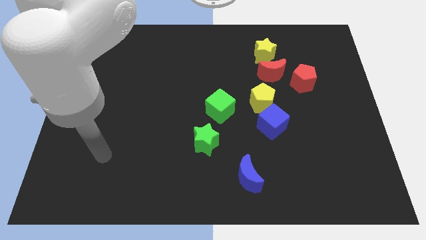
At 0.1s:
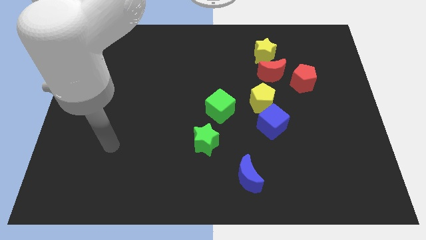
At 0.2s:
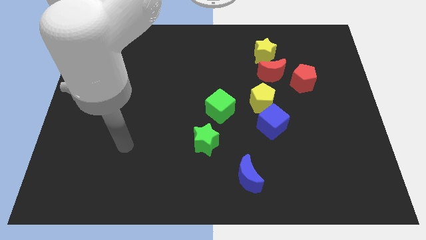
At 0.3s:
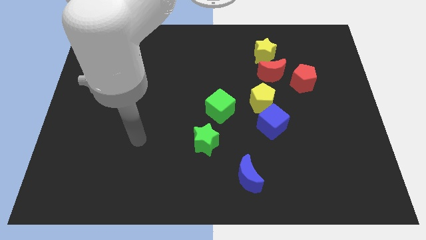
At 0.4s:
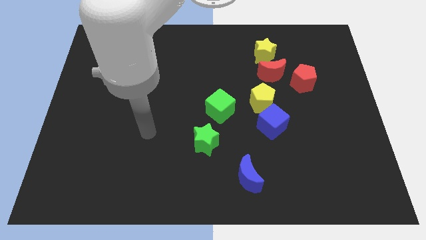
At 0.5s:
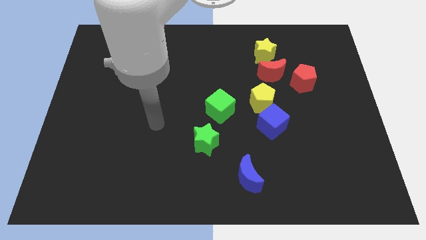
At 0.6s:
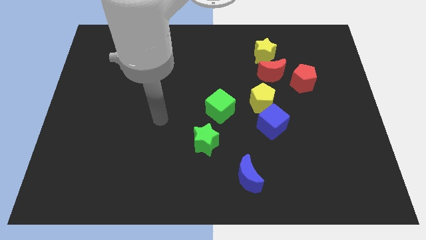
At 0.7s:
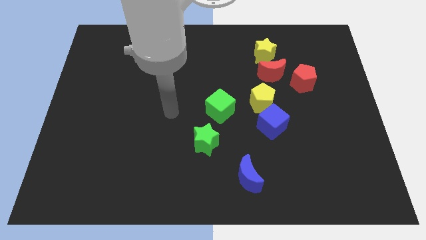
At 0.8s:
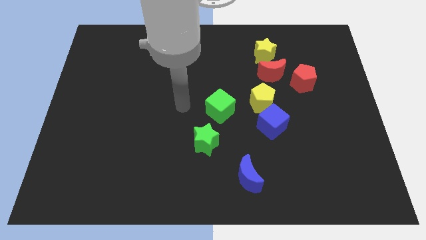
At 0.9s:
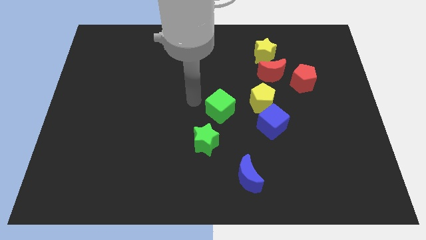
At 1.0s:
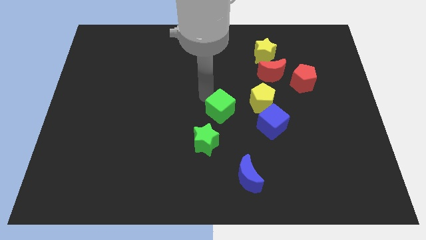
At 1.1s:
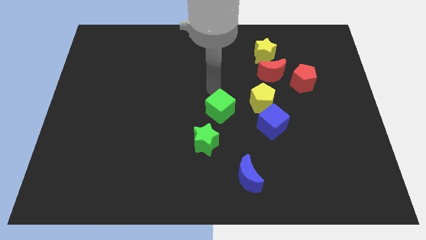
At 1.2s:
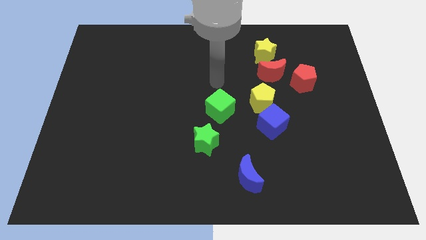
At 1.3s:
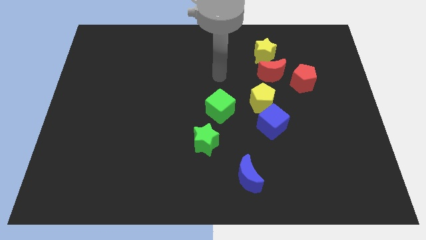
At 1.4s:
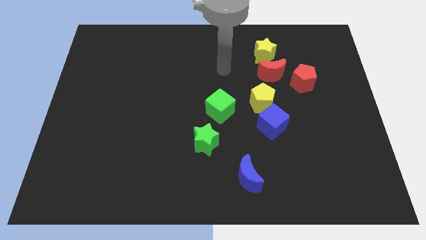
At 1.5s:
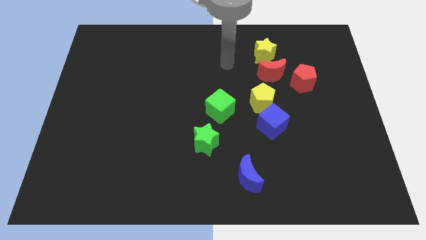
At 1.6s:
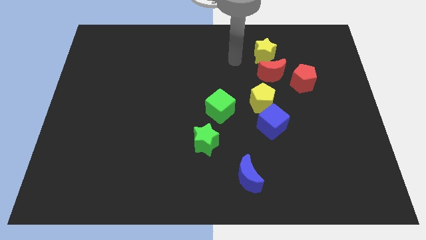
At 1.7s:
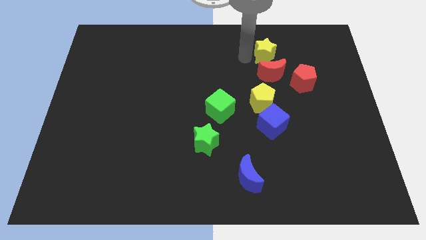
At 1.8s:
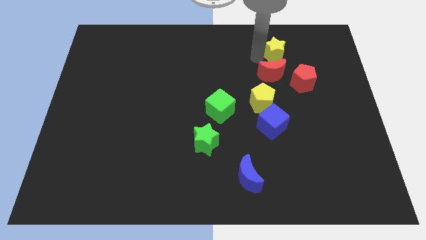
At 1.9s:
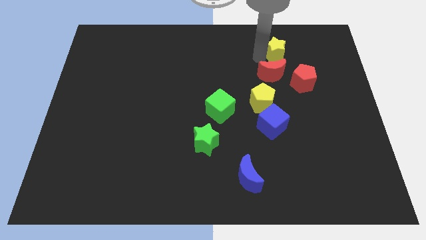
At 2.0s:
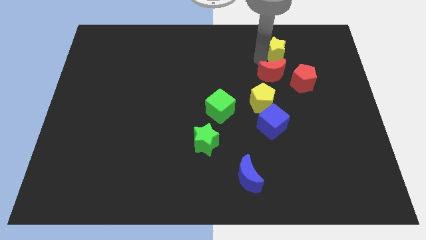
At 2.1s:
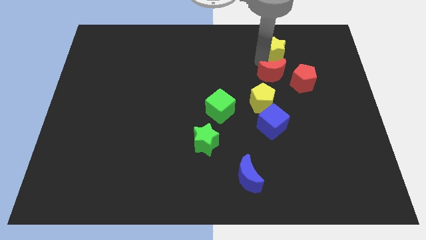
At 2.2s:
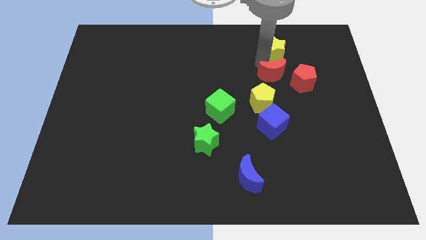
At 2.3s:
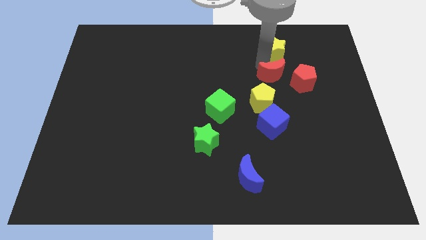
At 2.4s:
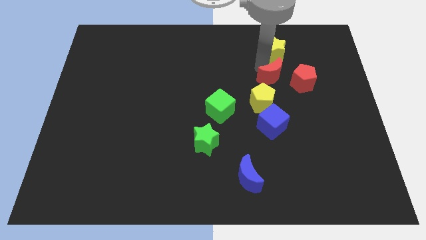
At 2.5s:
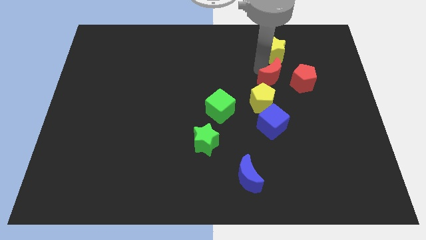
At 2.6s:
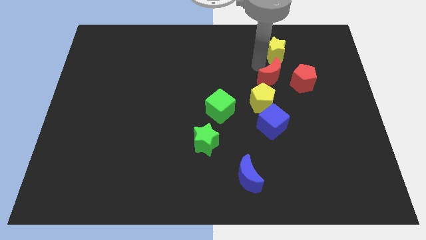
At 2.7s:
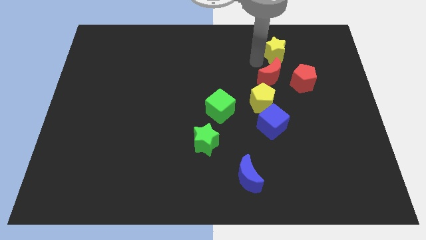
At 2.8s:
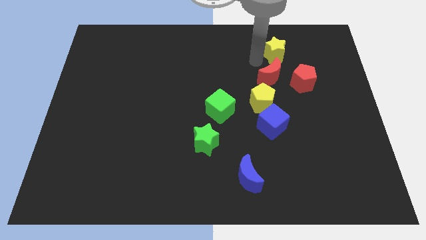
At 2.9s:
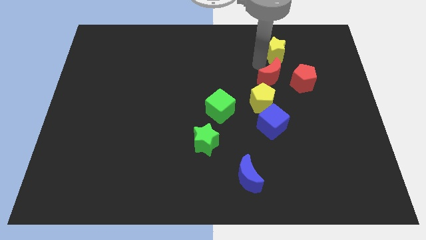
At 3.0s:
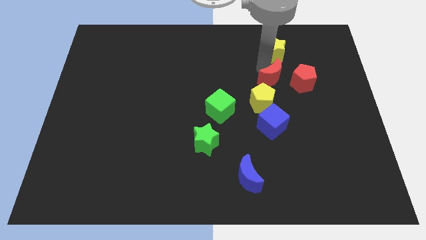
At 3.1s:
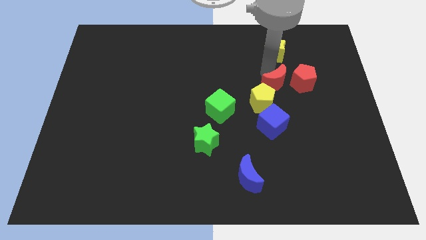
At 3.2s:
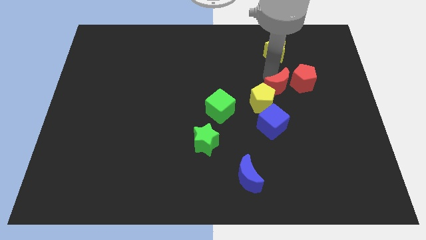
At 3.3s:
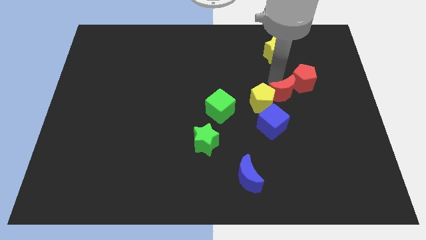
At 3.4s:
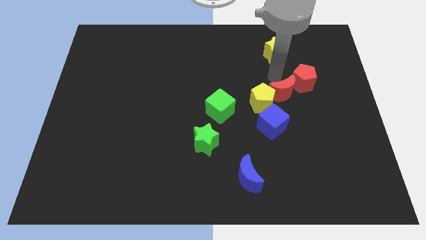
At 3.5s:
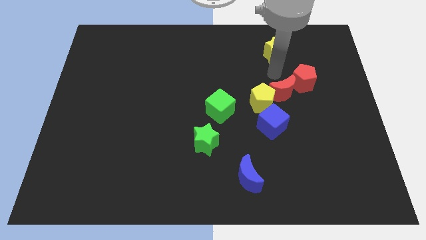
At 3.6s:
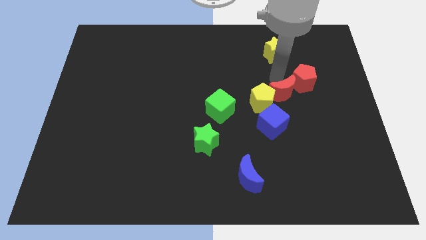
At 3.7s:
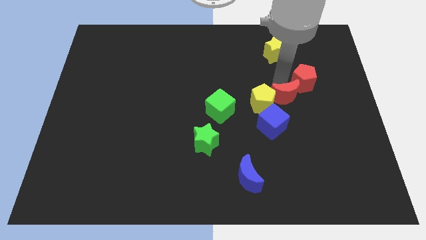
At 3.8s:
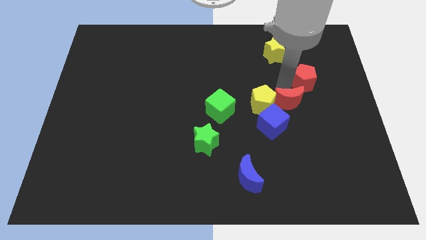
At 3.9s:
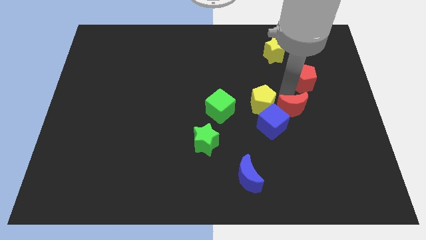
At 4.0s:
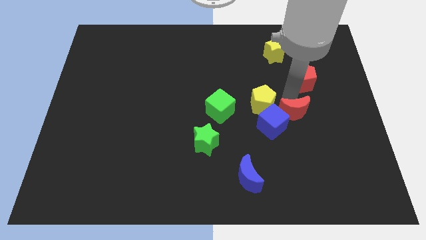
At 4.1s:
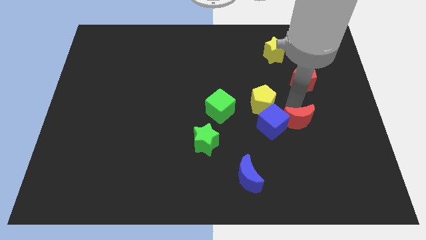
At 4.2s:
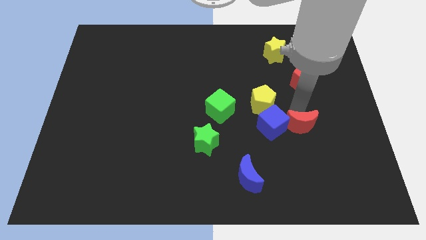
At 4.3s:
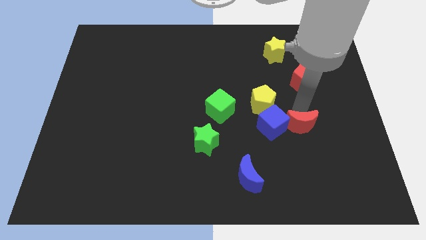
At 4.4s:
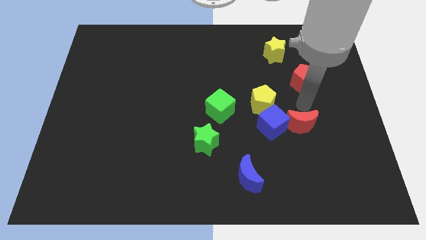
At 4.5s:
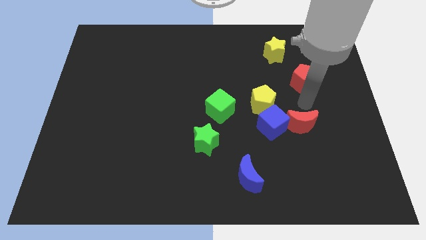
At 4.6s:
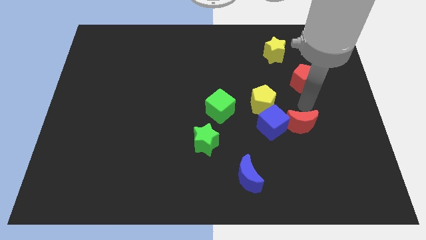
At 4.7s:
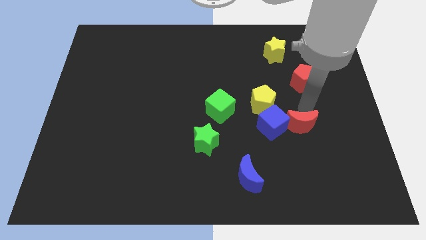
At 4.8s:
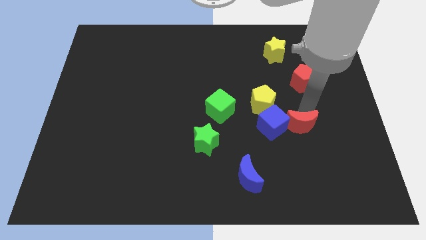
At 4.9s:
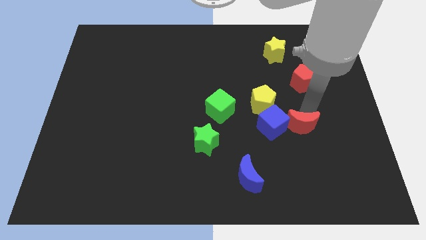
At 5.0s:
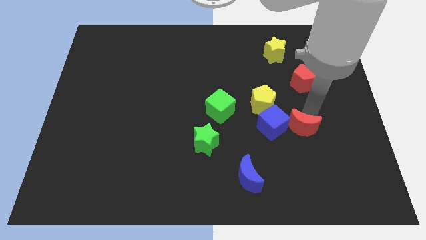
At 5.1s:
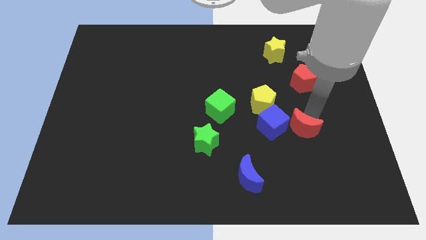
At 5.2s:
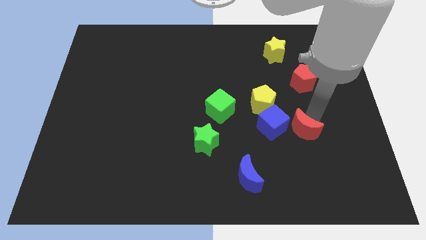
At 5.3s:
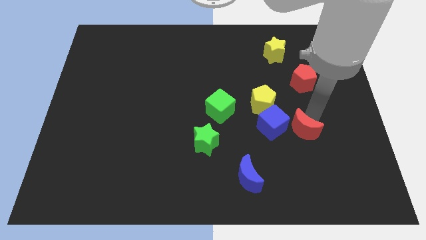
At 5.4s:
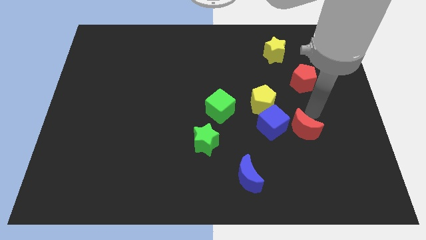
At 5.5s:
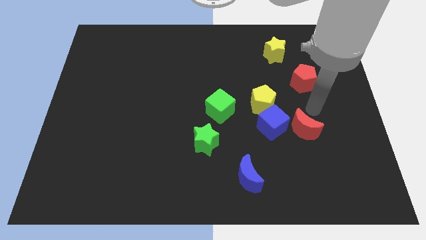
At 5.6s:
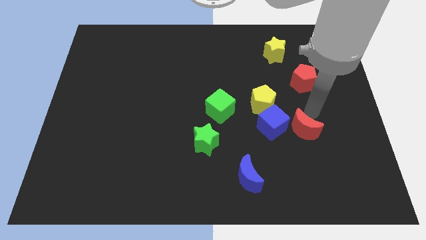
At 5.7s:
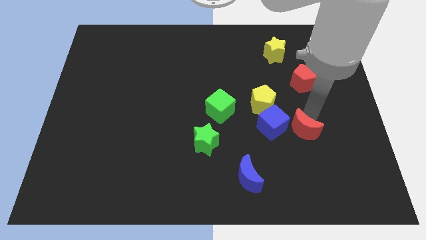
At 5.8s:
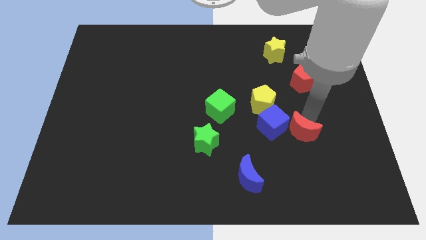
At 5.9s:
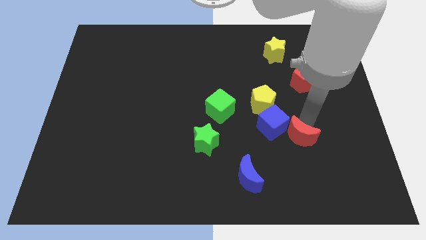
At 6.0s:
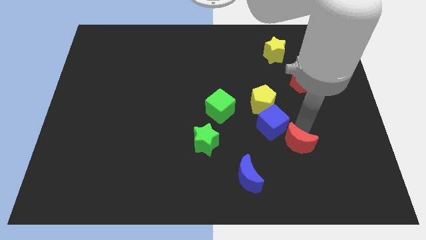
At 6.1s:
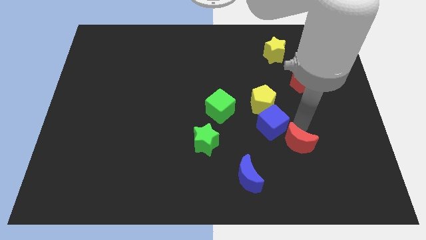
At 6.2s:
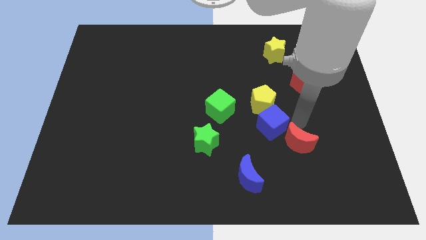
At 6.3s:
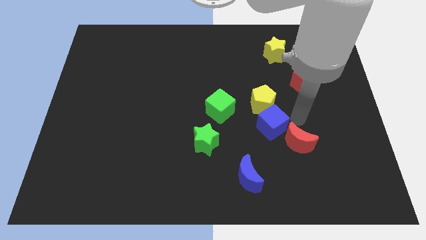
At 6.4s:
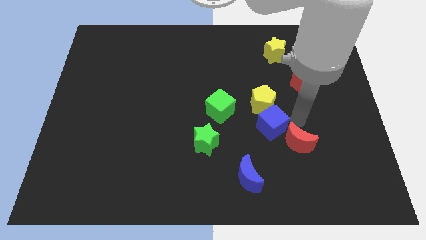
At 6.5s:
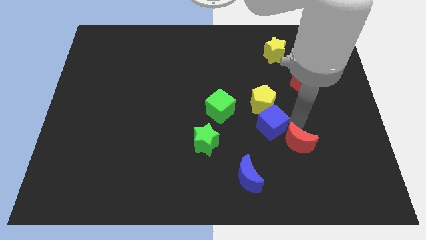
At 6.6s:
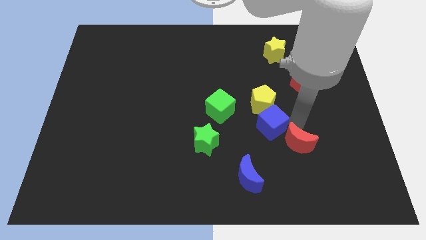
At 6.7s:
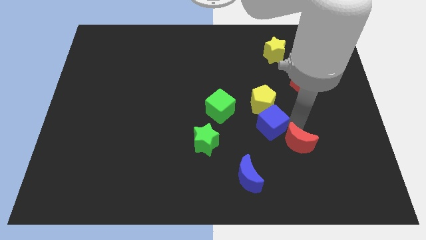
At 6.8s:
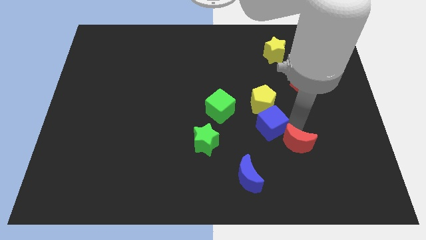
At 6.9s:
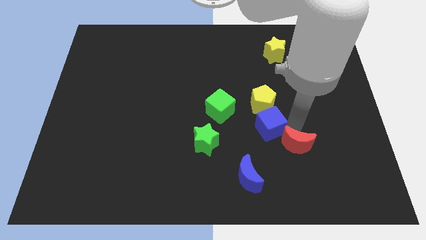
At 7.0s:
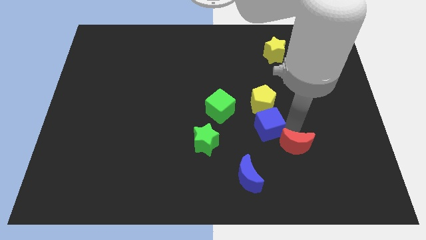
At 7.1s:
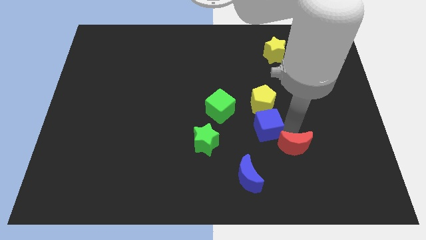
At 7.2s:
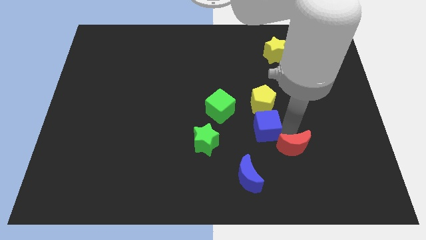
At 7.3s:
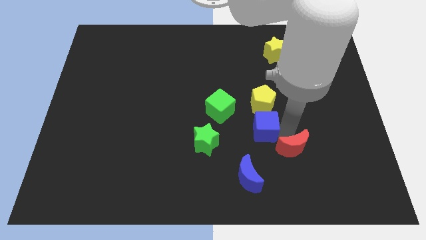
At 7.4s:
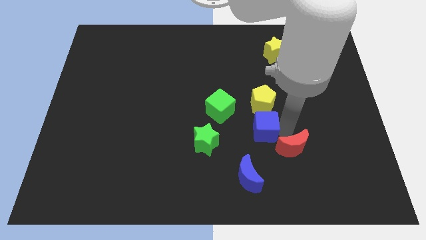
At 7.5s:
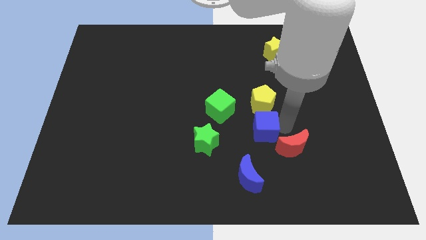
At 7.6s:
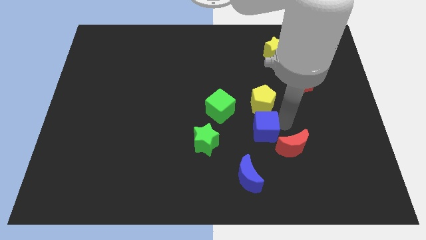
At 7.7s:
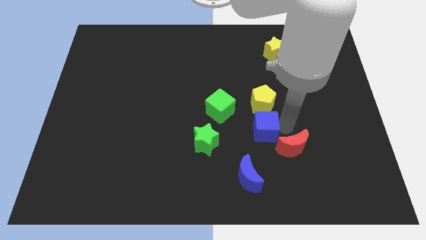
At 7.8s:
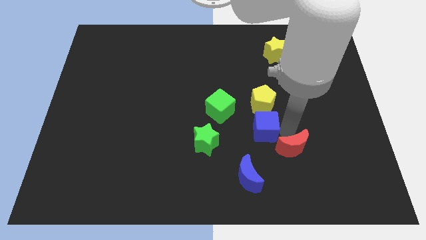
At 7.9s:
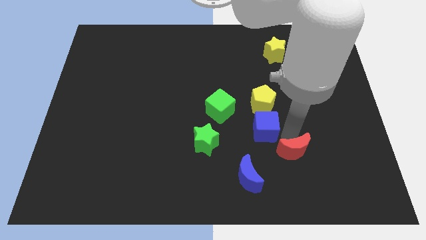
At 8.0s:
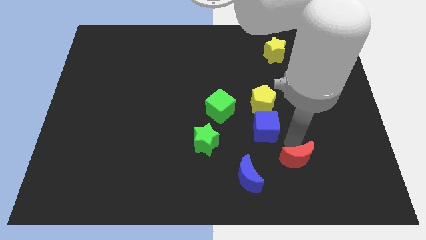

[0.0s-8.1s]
put the red moon to the right of the blue moon
